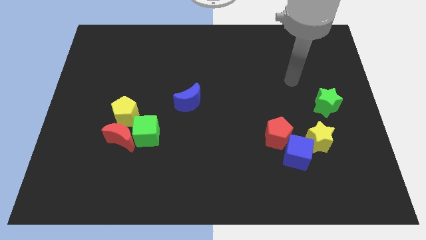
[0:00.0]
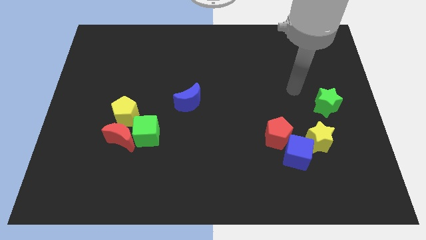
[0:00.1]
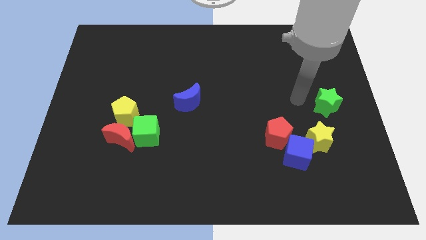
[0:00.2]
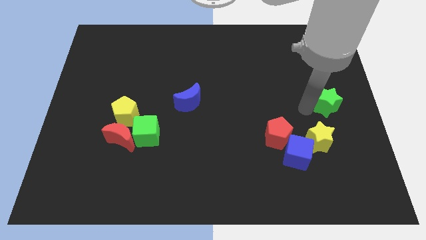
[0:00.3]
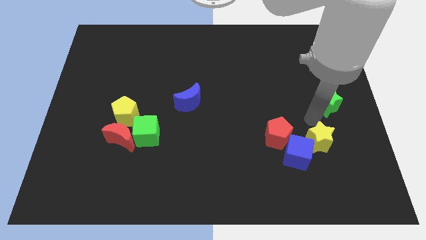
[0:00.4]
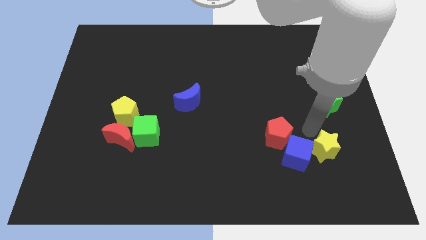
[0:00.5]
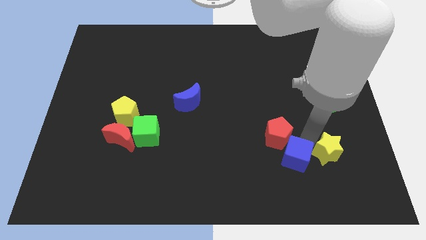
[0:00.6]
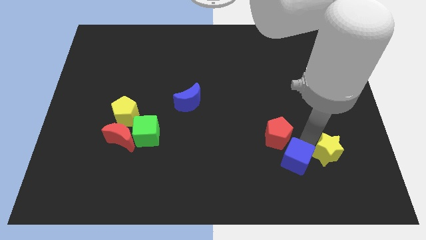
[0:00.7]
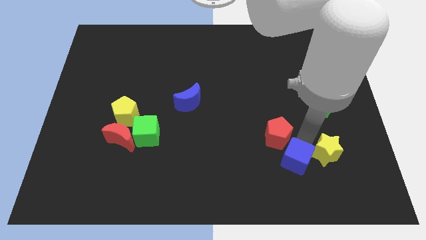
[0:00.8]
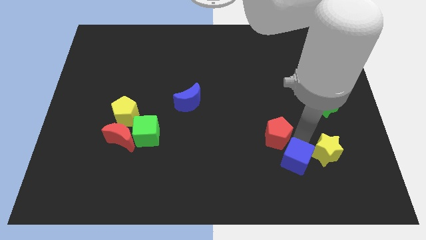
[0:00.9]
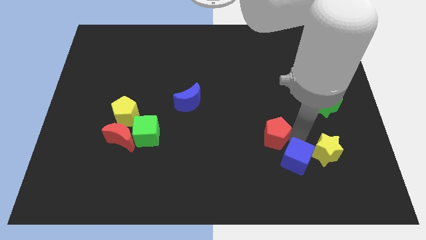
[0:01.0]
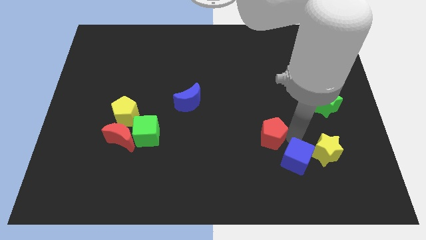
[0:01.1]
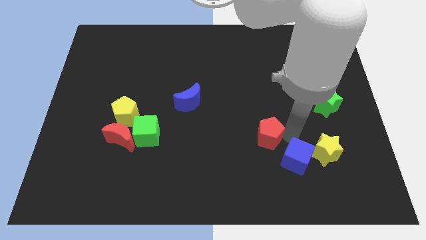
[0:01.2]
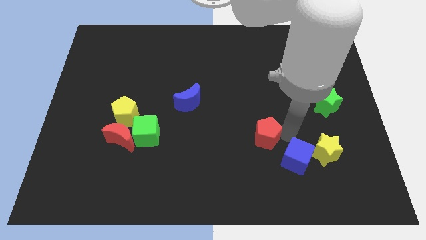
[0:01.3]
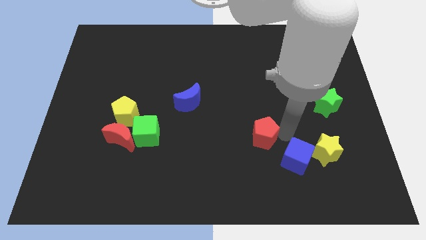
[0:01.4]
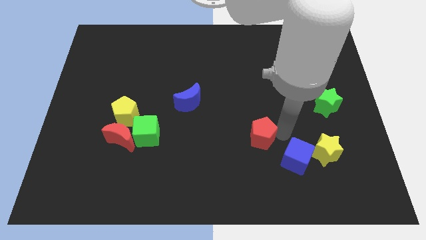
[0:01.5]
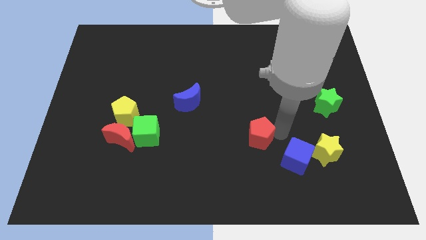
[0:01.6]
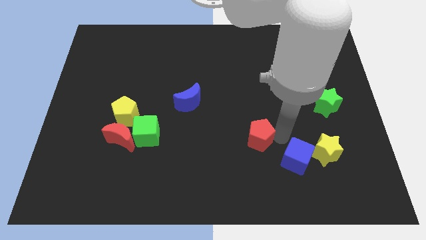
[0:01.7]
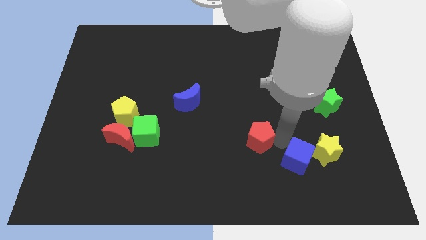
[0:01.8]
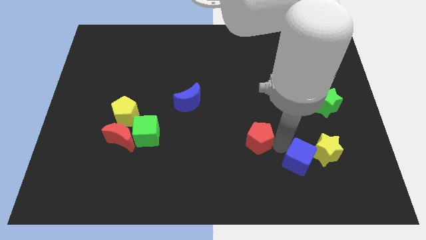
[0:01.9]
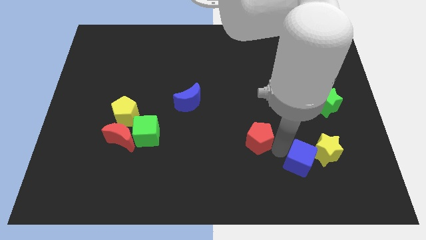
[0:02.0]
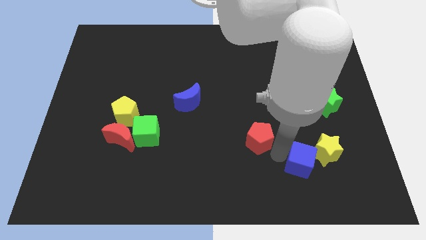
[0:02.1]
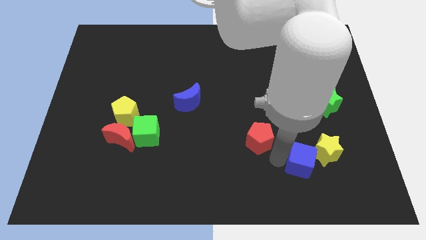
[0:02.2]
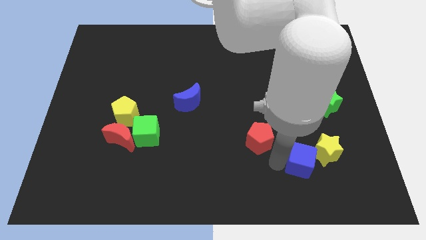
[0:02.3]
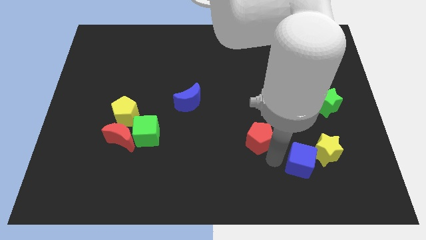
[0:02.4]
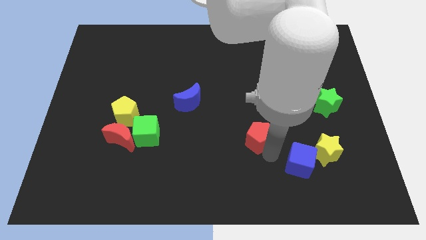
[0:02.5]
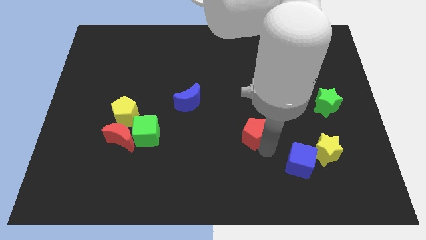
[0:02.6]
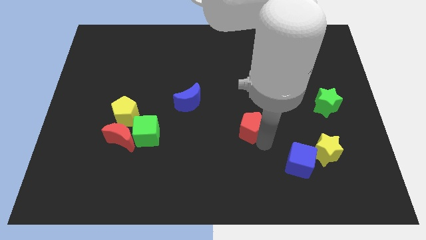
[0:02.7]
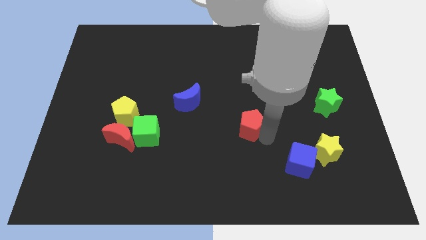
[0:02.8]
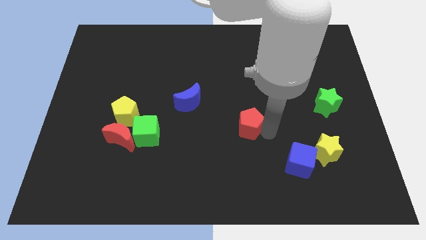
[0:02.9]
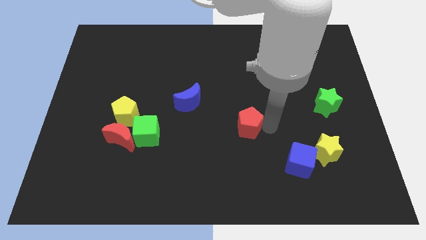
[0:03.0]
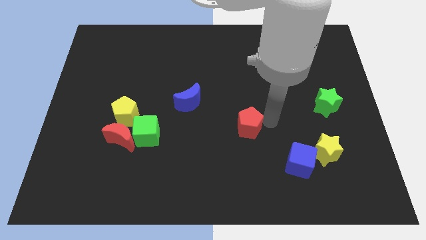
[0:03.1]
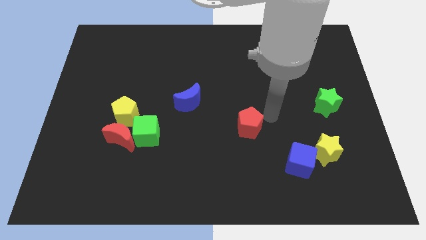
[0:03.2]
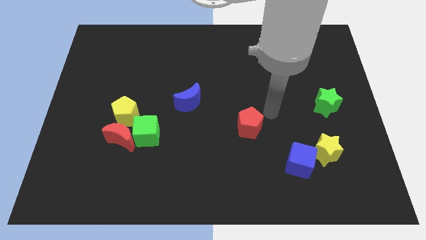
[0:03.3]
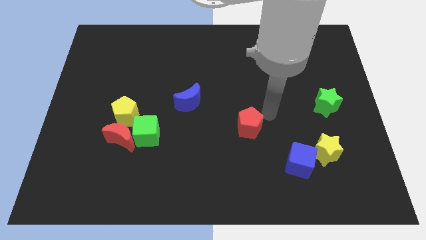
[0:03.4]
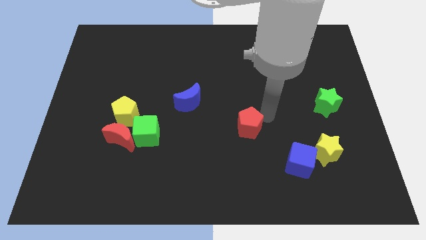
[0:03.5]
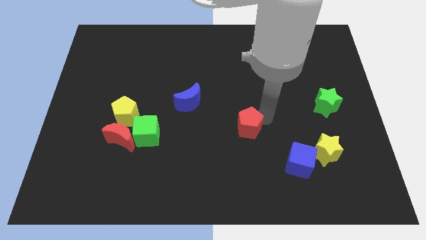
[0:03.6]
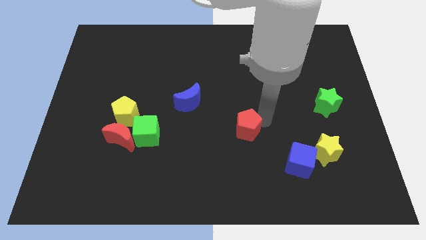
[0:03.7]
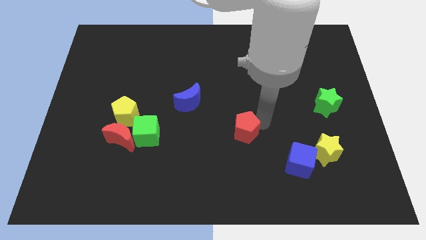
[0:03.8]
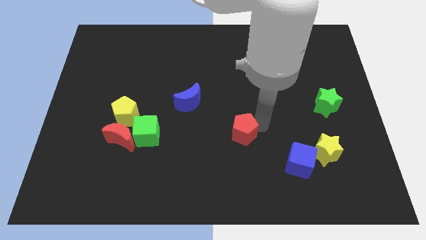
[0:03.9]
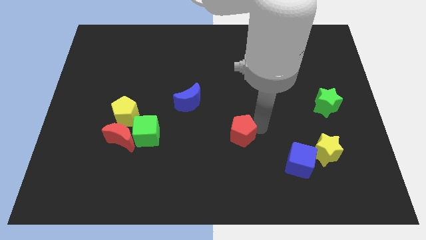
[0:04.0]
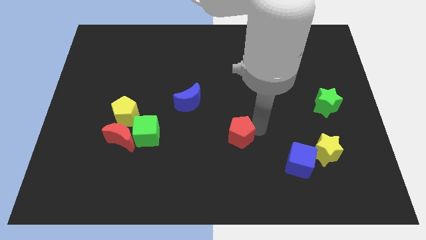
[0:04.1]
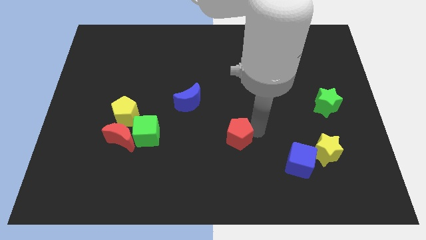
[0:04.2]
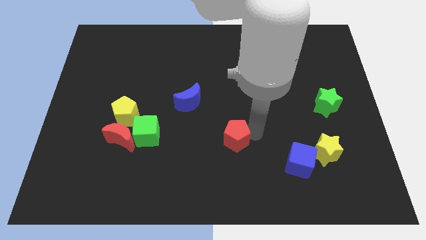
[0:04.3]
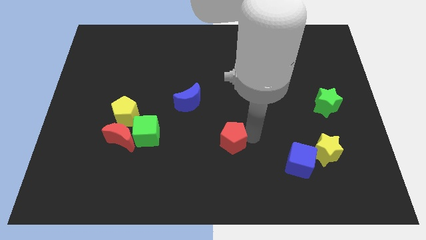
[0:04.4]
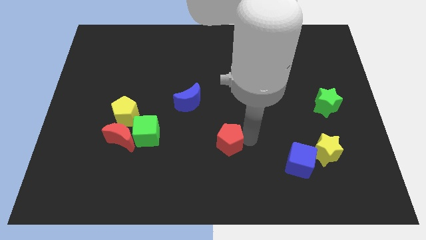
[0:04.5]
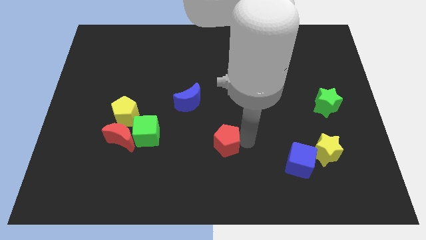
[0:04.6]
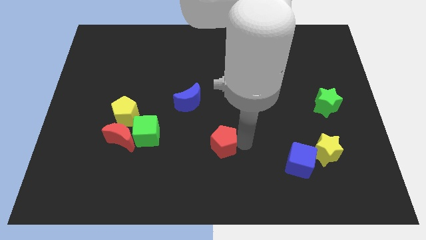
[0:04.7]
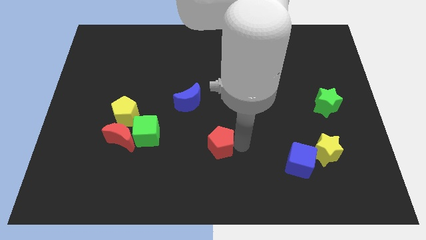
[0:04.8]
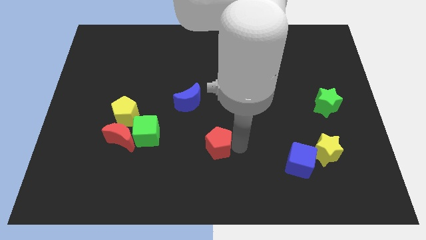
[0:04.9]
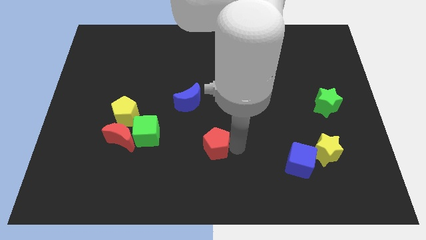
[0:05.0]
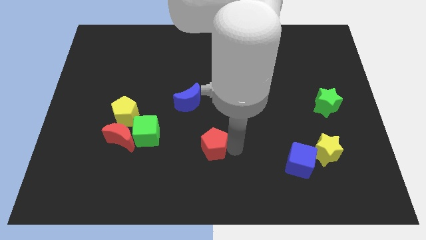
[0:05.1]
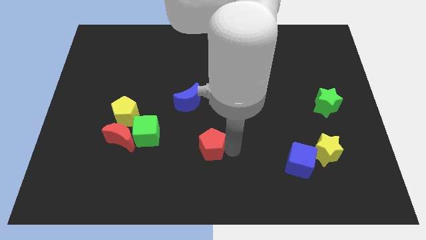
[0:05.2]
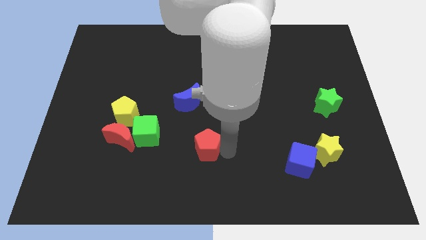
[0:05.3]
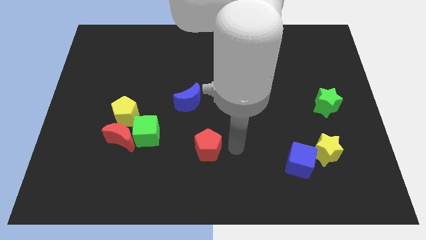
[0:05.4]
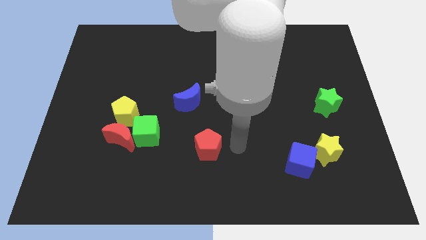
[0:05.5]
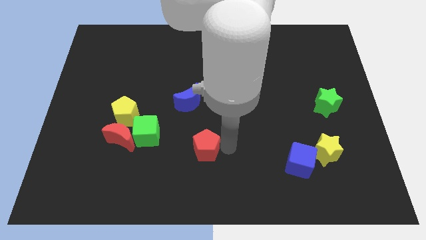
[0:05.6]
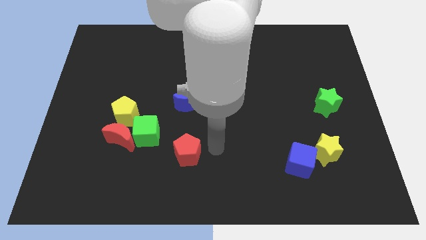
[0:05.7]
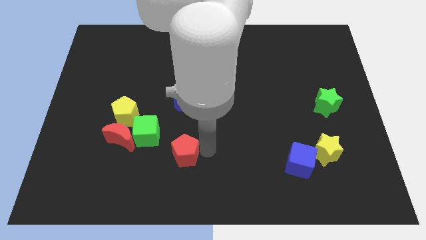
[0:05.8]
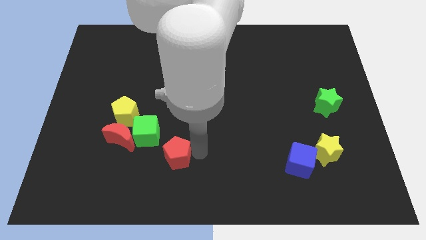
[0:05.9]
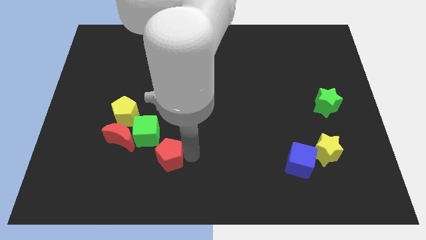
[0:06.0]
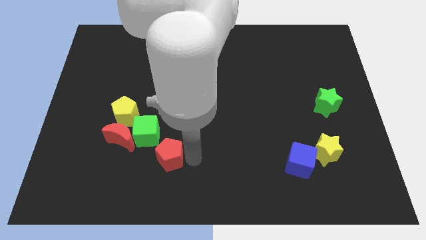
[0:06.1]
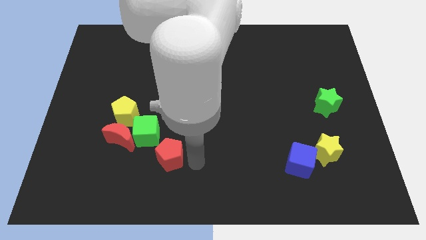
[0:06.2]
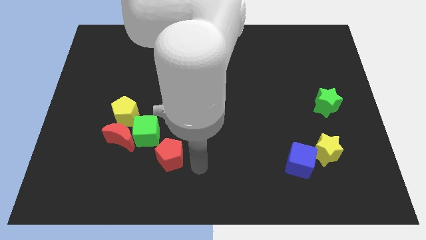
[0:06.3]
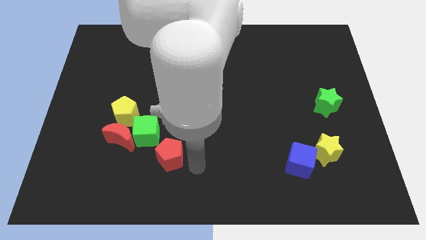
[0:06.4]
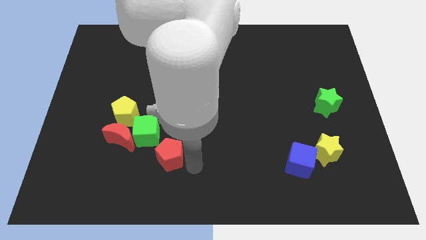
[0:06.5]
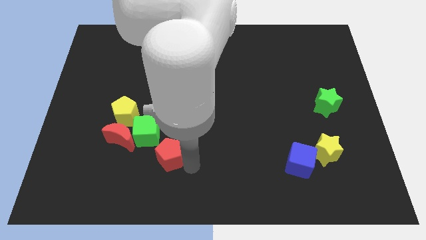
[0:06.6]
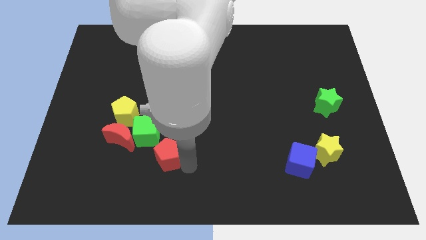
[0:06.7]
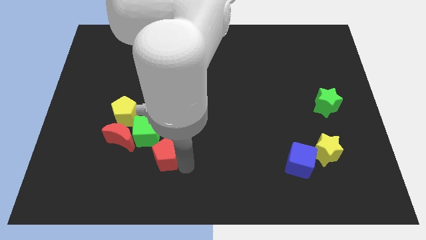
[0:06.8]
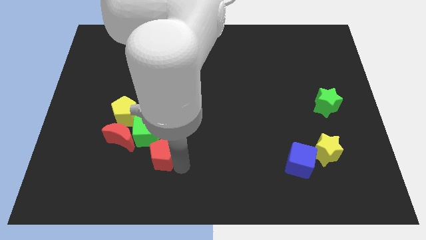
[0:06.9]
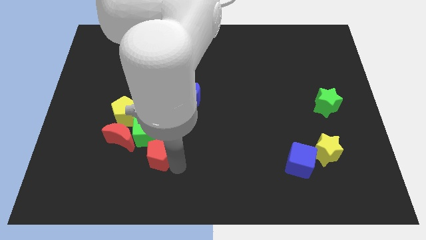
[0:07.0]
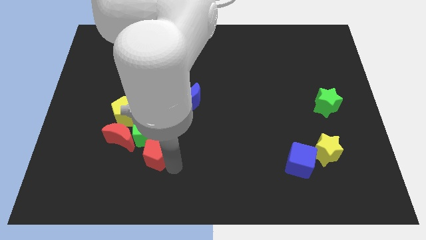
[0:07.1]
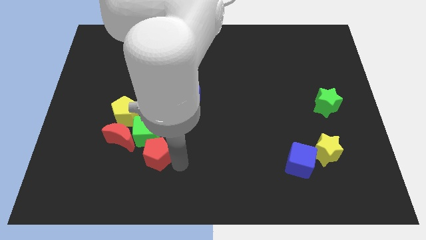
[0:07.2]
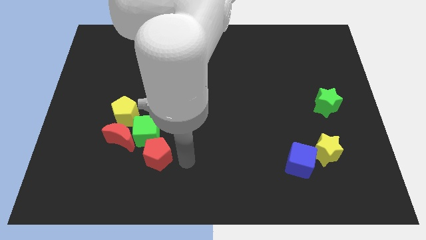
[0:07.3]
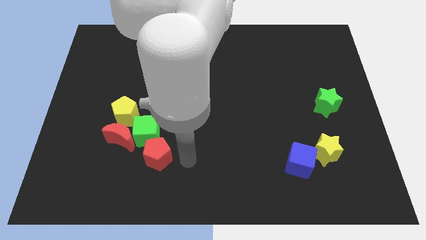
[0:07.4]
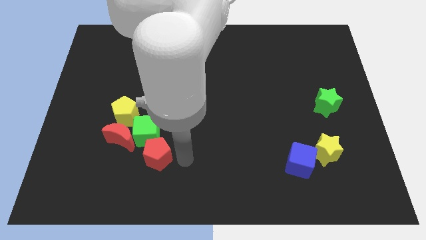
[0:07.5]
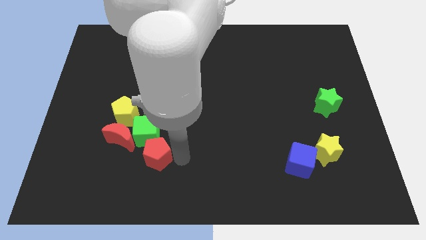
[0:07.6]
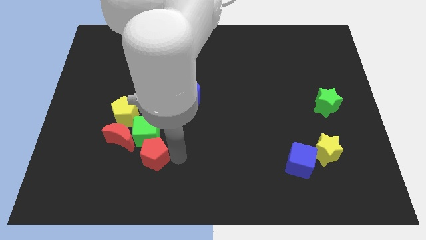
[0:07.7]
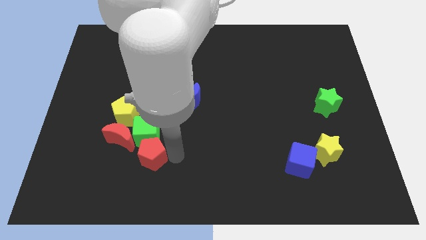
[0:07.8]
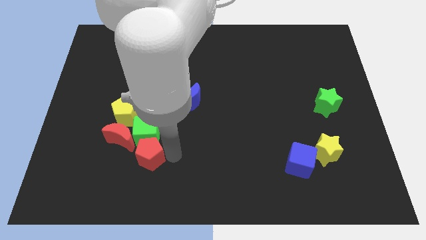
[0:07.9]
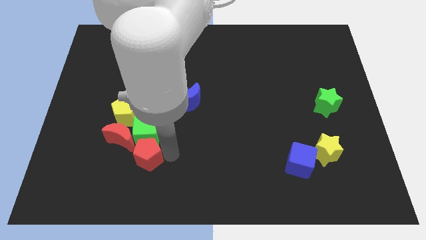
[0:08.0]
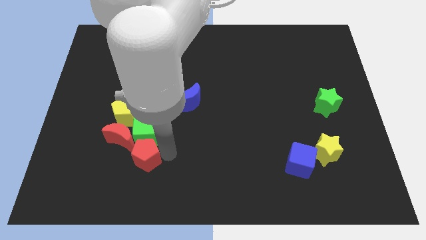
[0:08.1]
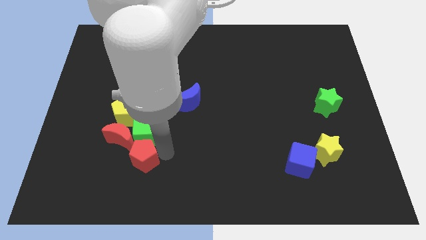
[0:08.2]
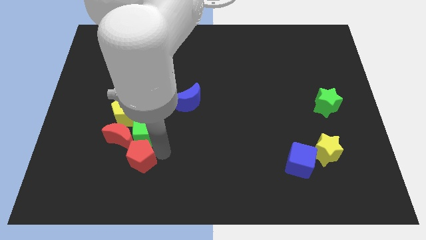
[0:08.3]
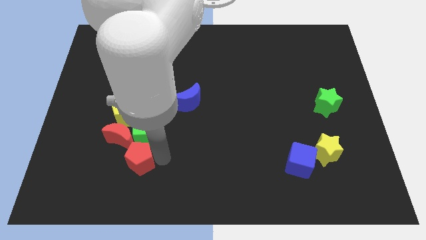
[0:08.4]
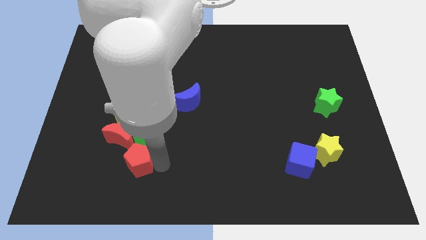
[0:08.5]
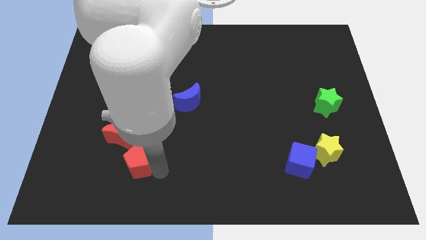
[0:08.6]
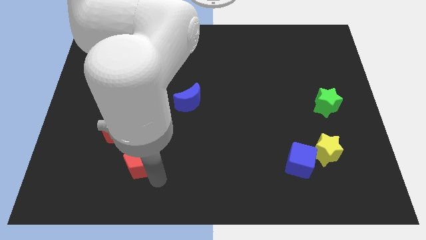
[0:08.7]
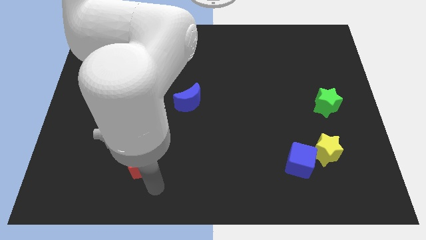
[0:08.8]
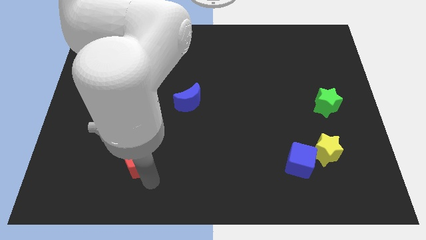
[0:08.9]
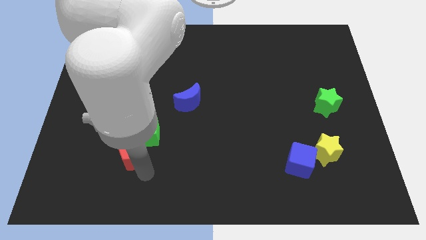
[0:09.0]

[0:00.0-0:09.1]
put the red pentagon towards the red moon
